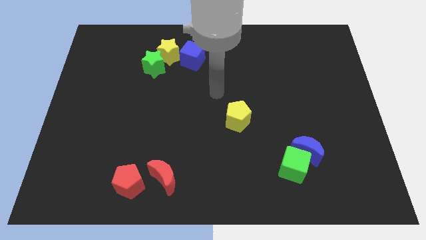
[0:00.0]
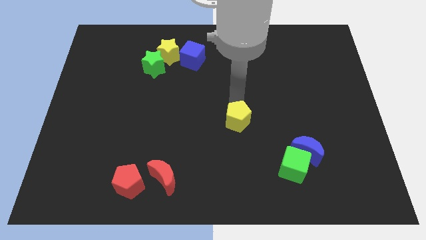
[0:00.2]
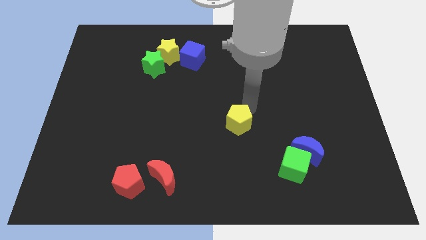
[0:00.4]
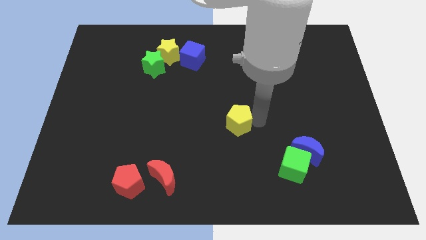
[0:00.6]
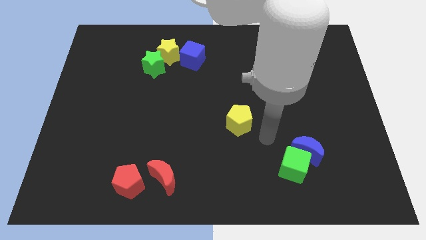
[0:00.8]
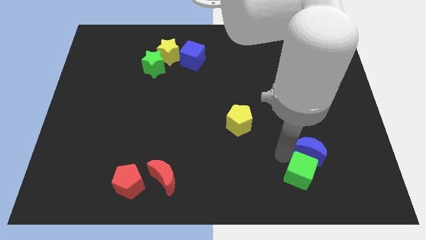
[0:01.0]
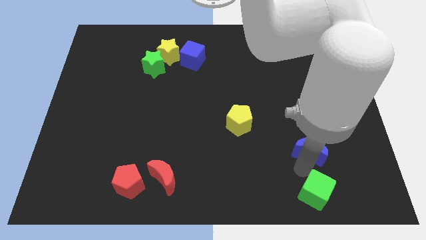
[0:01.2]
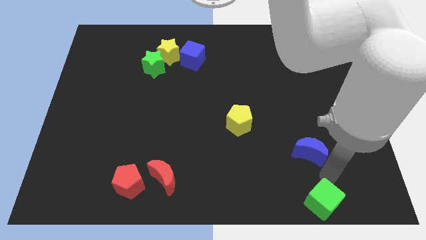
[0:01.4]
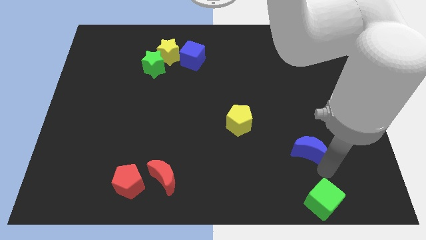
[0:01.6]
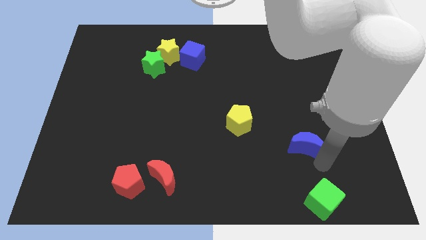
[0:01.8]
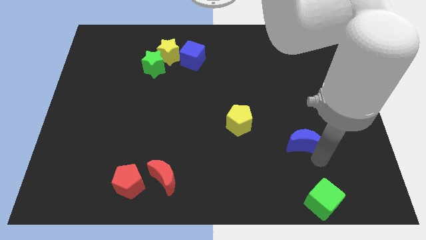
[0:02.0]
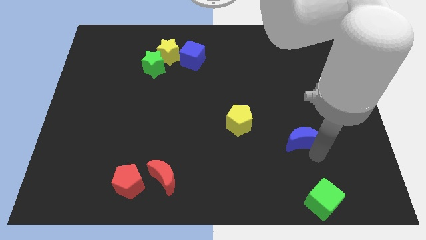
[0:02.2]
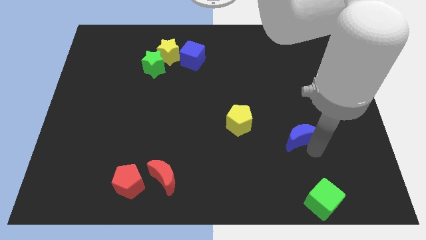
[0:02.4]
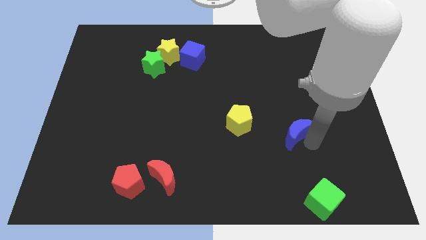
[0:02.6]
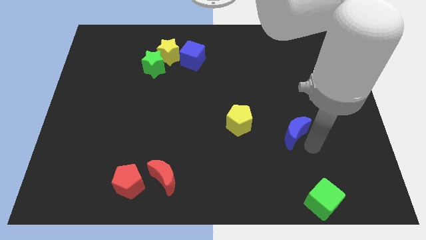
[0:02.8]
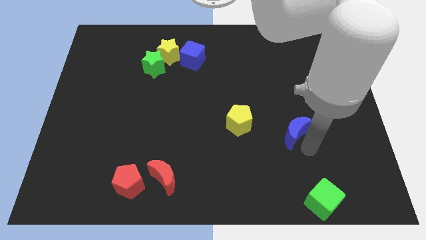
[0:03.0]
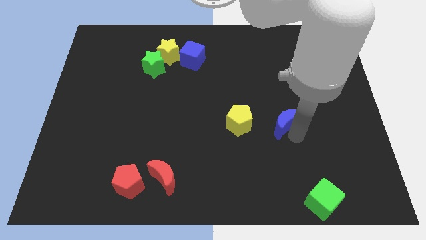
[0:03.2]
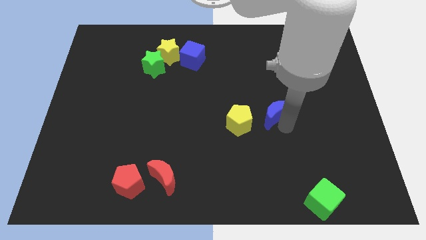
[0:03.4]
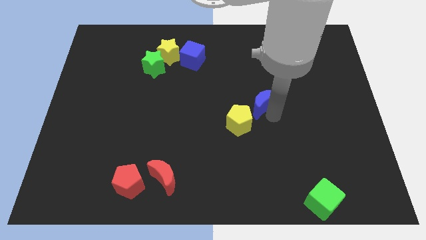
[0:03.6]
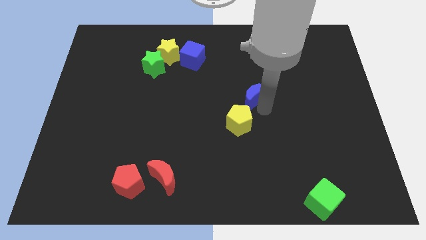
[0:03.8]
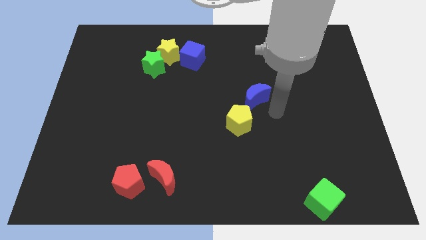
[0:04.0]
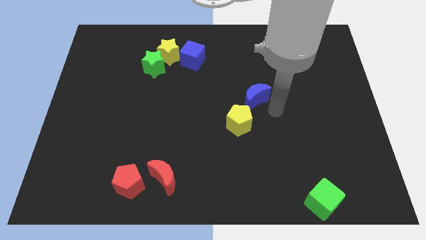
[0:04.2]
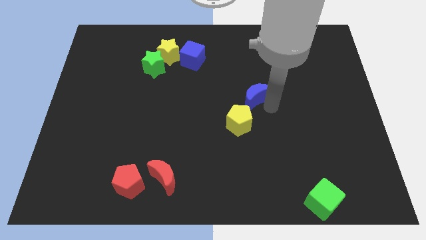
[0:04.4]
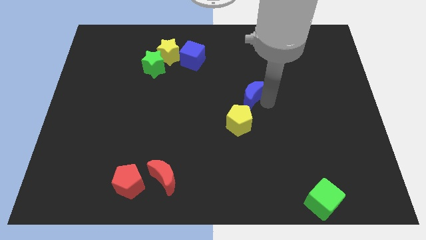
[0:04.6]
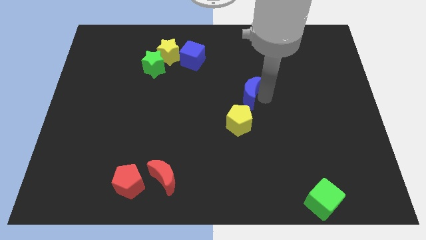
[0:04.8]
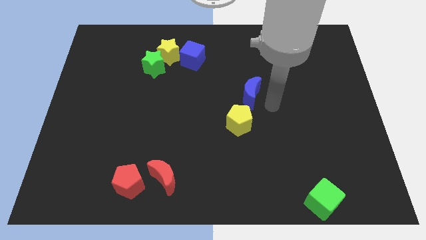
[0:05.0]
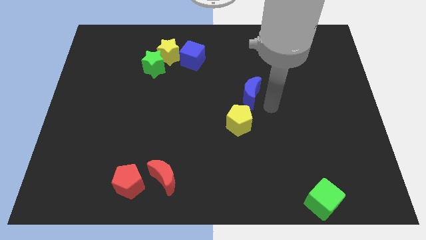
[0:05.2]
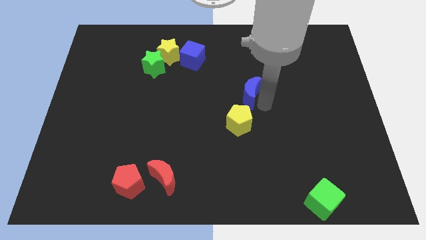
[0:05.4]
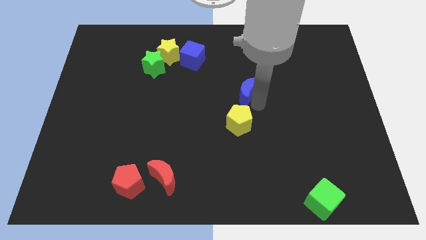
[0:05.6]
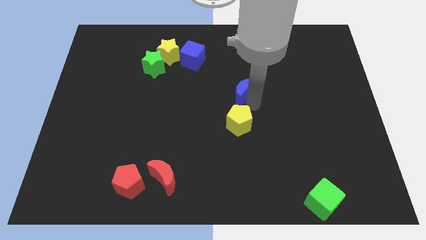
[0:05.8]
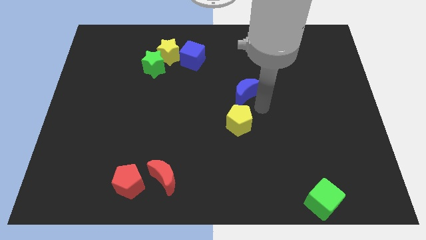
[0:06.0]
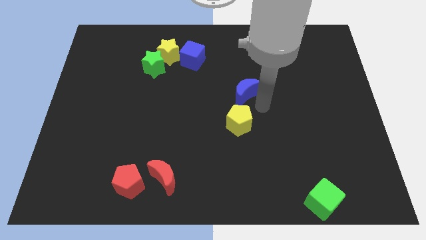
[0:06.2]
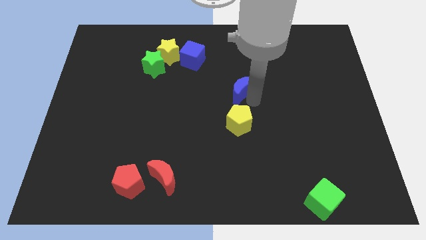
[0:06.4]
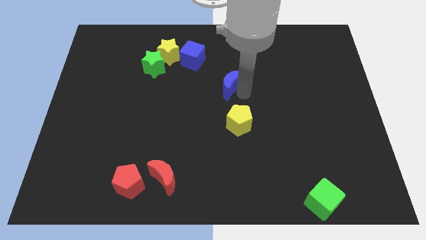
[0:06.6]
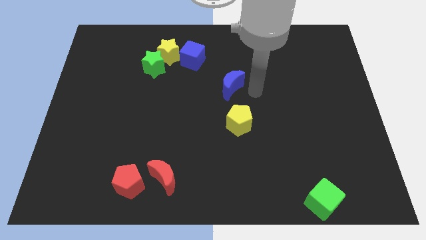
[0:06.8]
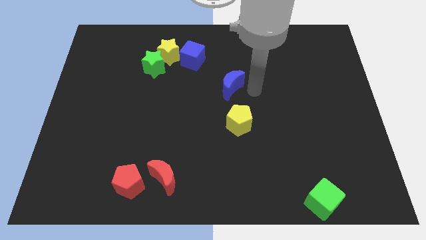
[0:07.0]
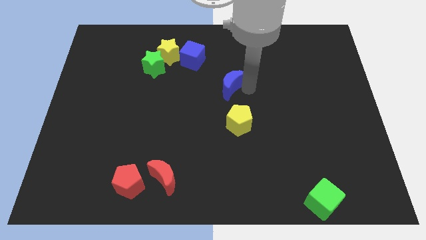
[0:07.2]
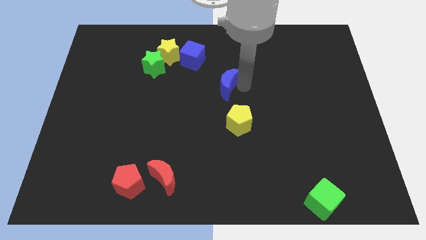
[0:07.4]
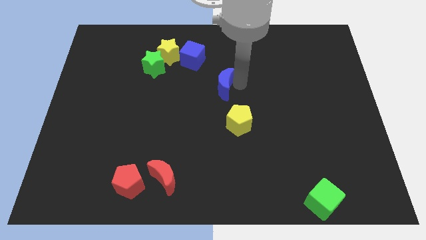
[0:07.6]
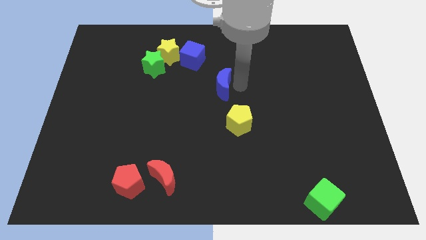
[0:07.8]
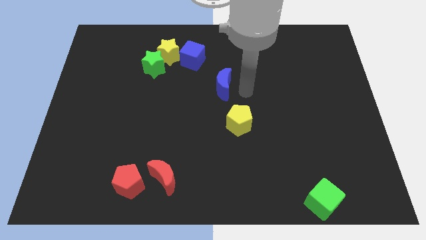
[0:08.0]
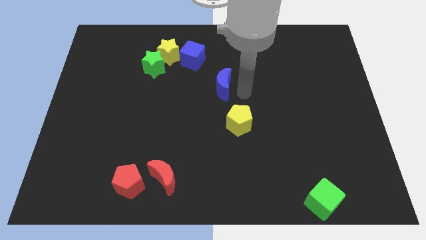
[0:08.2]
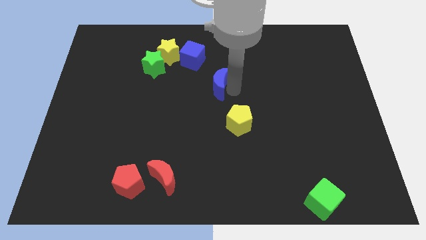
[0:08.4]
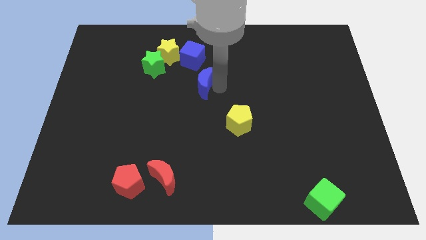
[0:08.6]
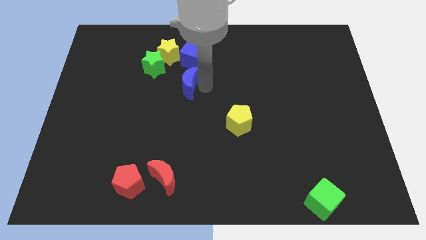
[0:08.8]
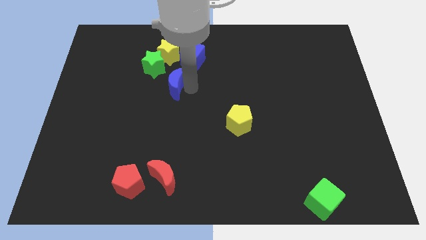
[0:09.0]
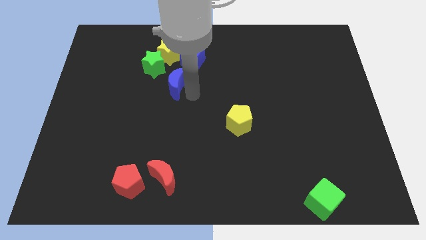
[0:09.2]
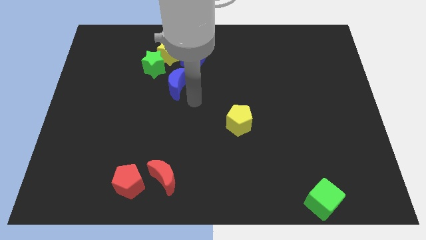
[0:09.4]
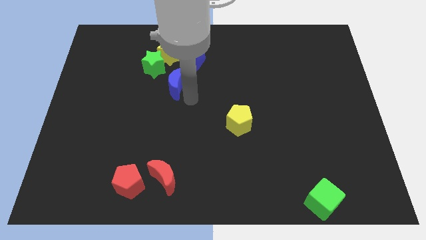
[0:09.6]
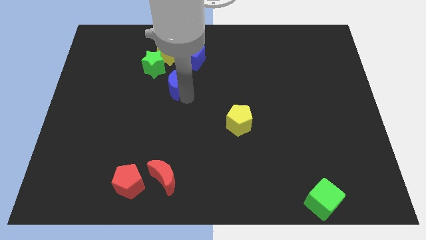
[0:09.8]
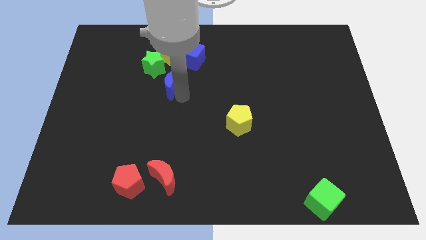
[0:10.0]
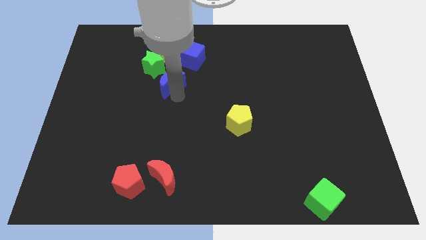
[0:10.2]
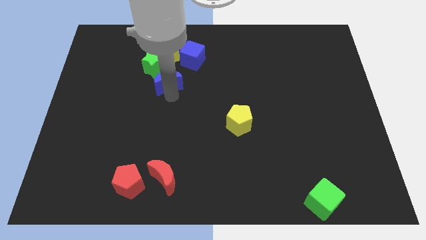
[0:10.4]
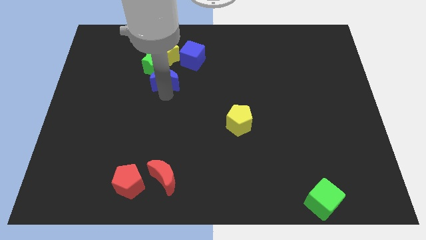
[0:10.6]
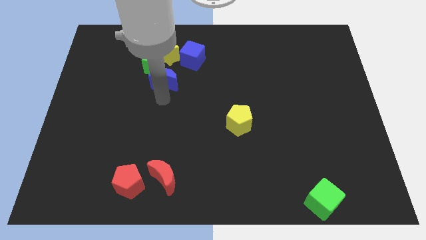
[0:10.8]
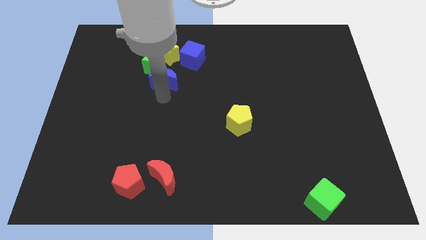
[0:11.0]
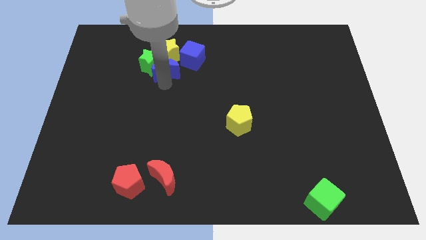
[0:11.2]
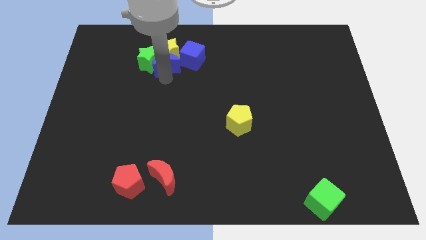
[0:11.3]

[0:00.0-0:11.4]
slide the blue moon close to the yellow star

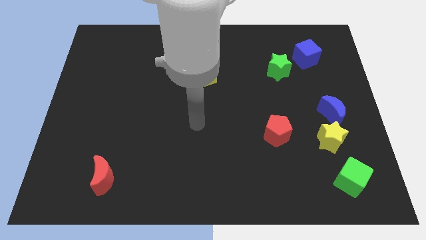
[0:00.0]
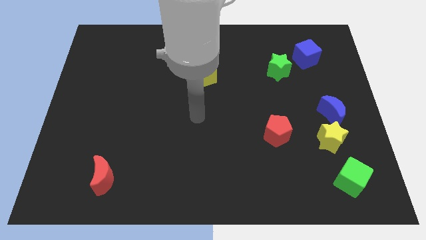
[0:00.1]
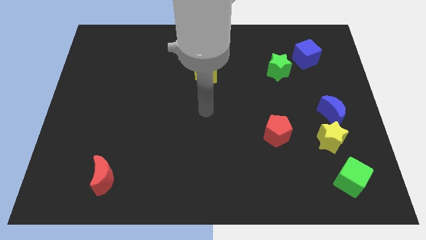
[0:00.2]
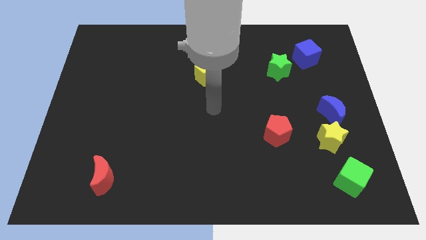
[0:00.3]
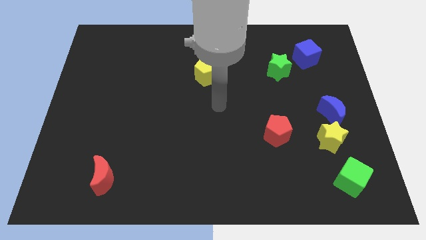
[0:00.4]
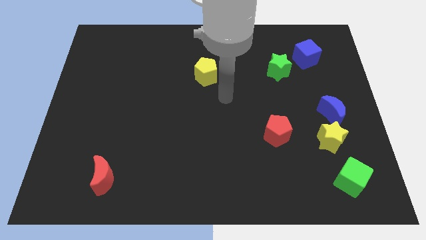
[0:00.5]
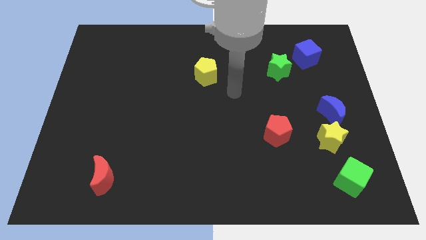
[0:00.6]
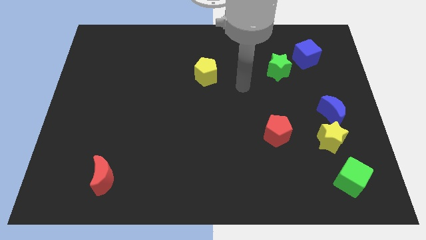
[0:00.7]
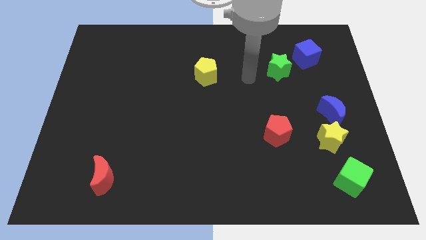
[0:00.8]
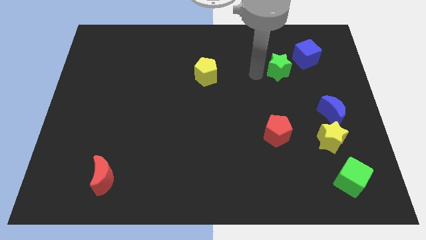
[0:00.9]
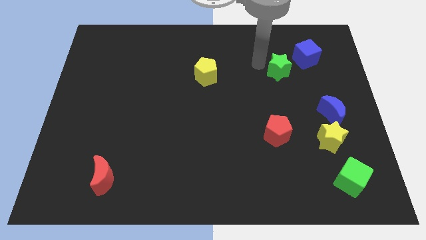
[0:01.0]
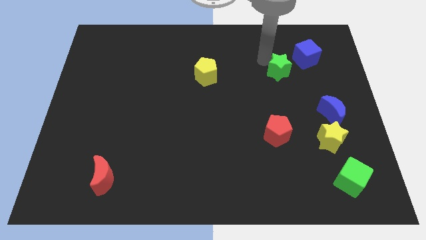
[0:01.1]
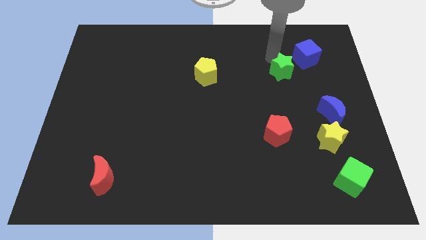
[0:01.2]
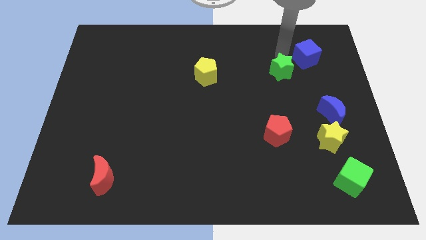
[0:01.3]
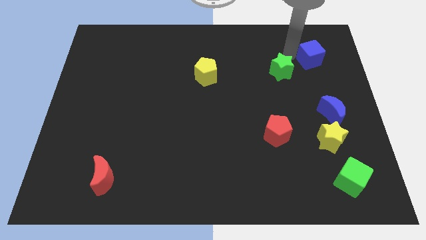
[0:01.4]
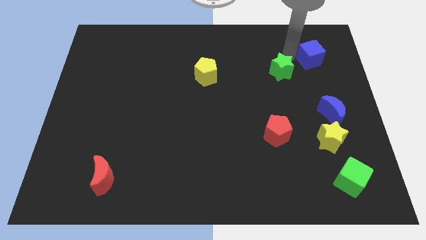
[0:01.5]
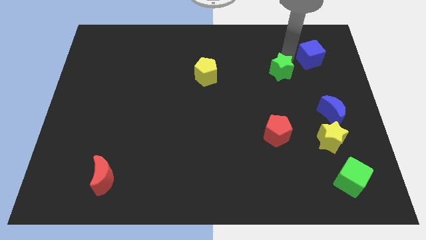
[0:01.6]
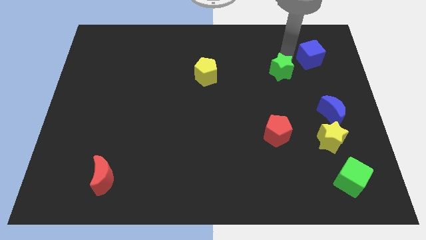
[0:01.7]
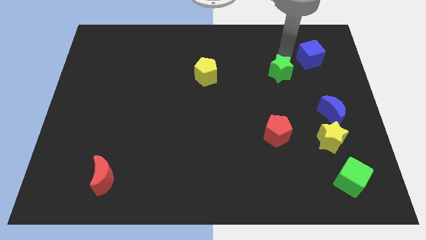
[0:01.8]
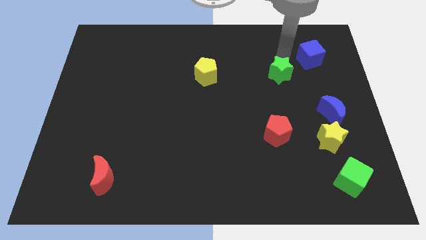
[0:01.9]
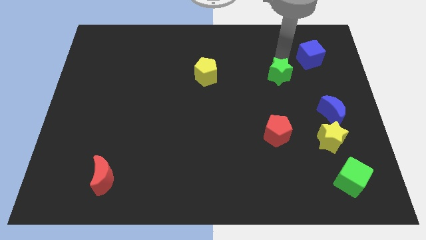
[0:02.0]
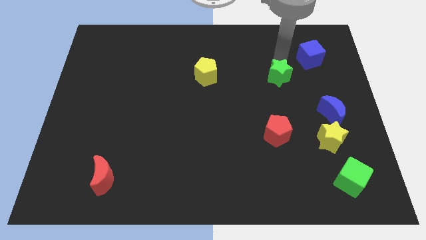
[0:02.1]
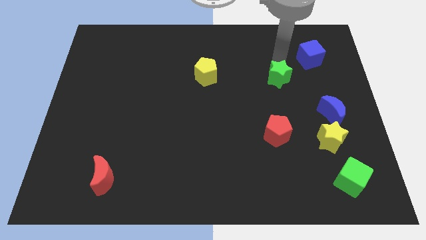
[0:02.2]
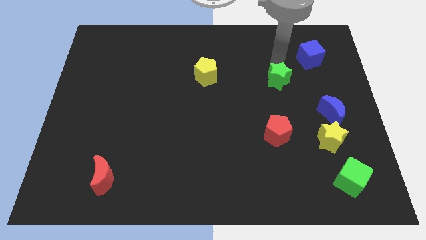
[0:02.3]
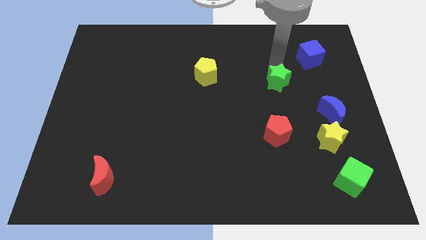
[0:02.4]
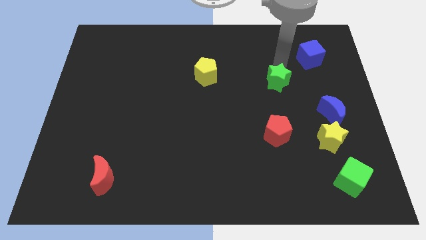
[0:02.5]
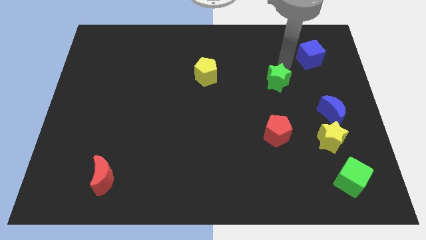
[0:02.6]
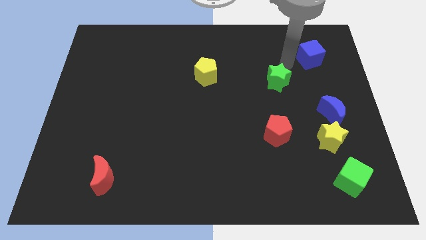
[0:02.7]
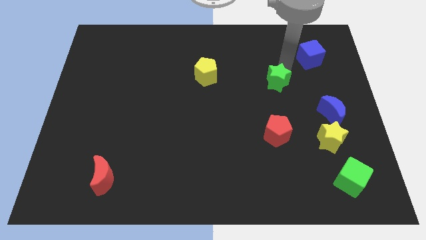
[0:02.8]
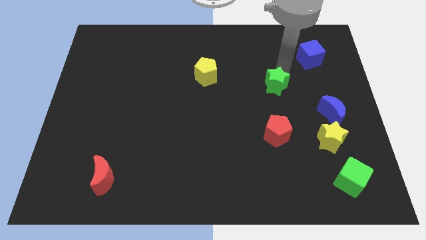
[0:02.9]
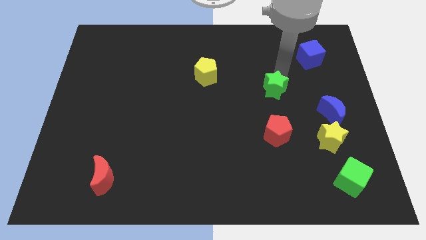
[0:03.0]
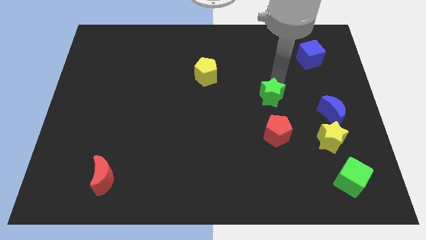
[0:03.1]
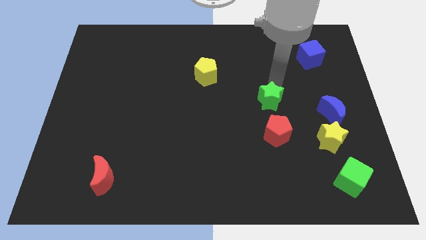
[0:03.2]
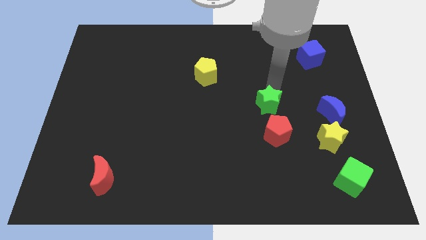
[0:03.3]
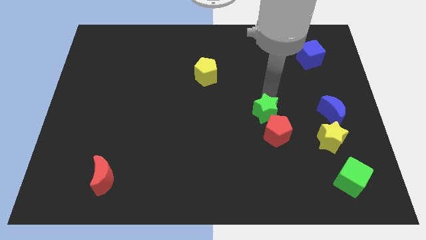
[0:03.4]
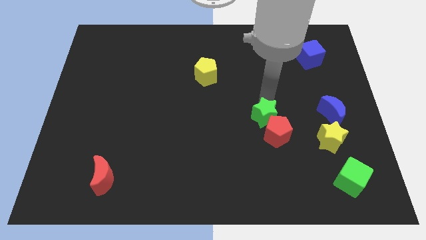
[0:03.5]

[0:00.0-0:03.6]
slide the green star to the red pentagon
